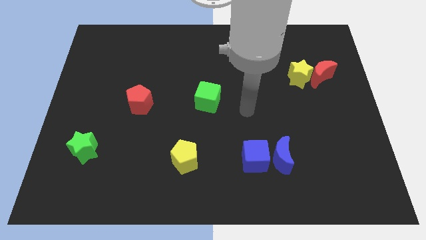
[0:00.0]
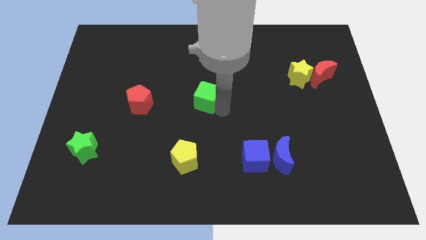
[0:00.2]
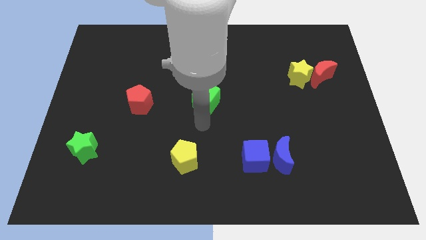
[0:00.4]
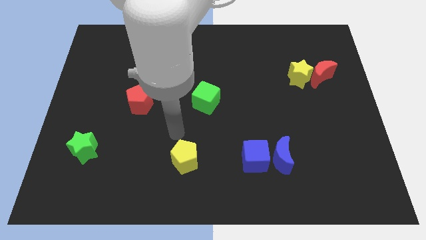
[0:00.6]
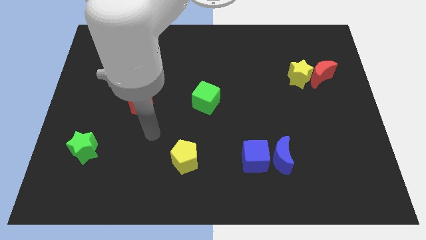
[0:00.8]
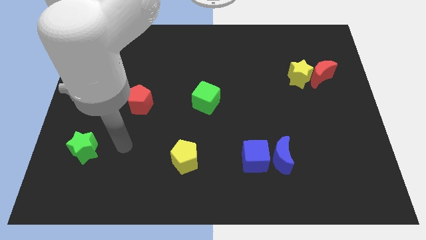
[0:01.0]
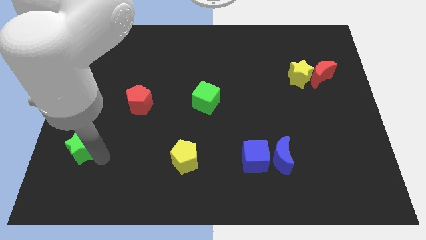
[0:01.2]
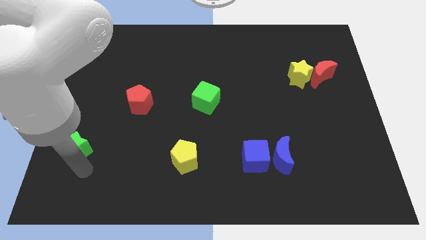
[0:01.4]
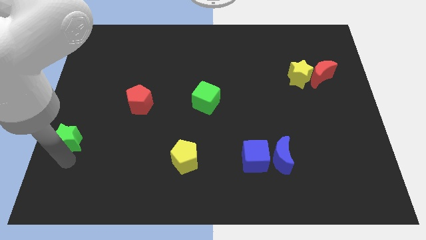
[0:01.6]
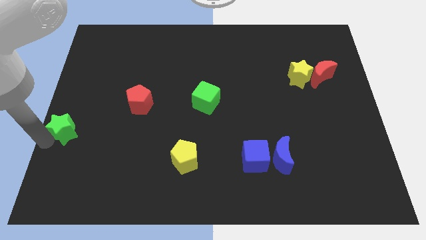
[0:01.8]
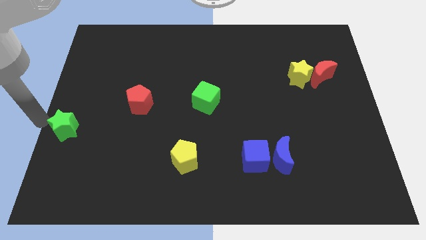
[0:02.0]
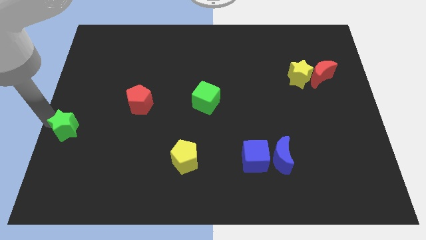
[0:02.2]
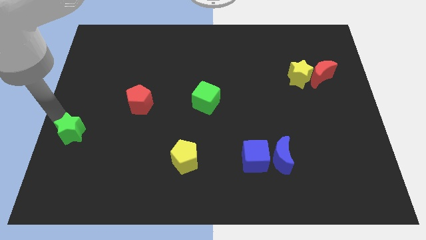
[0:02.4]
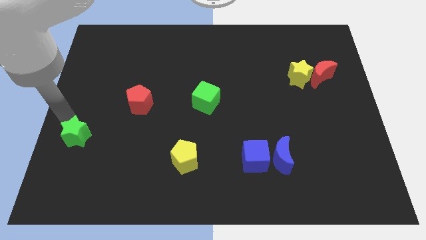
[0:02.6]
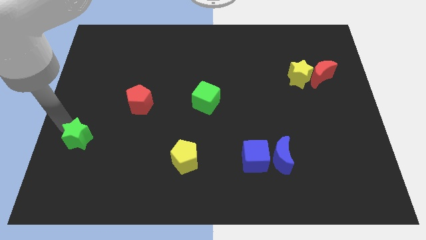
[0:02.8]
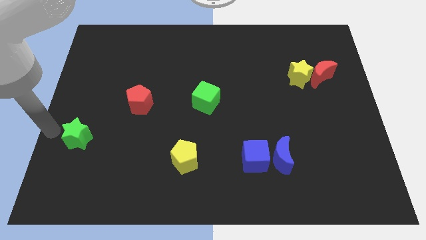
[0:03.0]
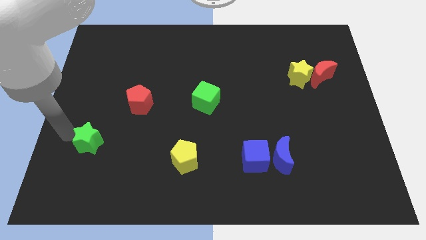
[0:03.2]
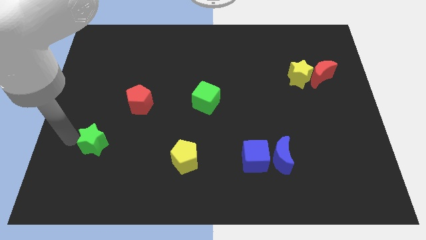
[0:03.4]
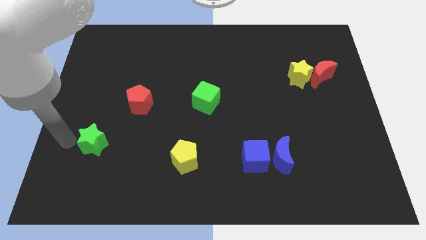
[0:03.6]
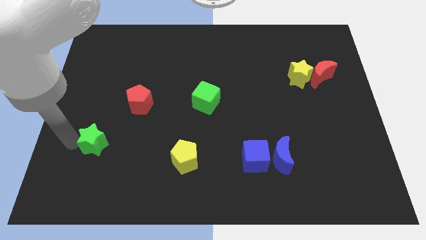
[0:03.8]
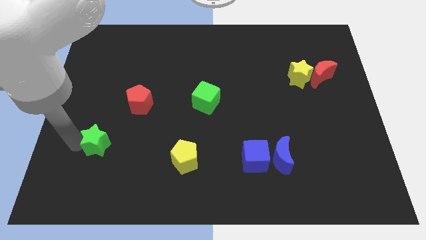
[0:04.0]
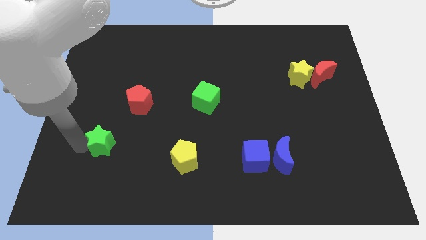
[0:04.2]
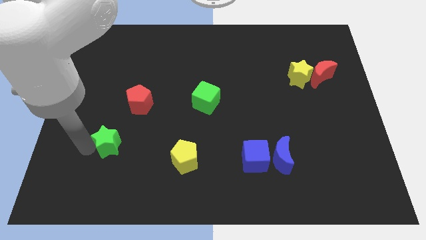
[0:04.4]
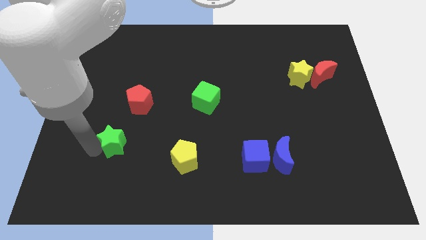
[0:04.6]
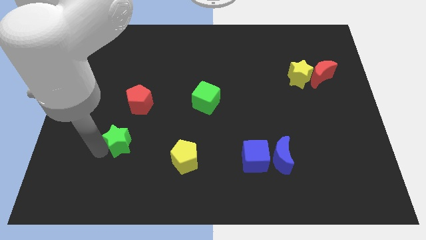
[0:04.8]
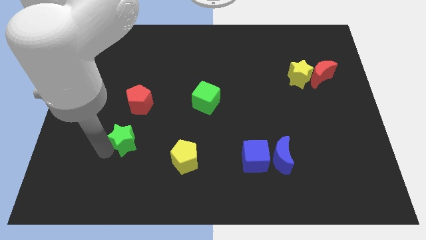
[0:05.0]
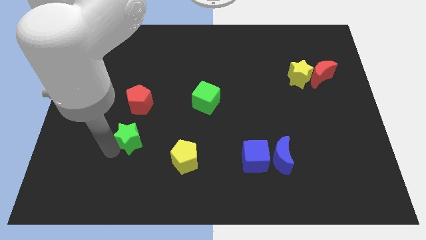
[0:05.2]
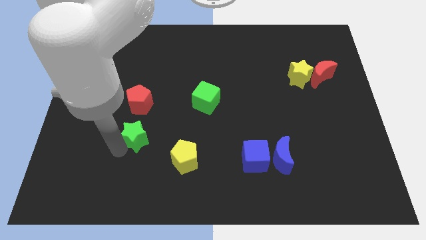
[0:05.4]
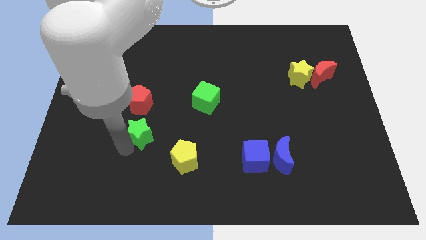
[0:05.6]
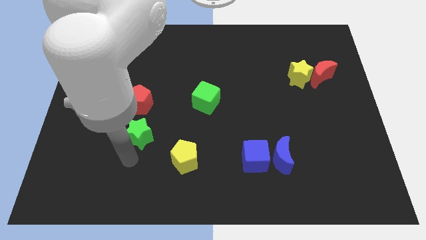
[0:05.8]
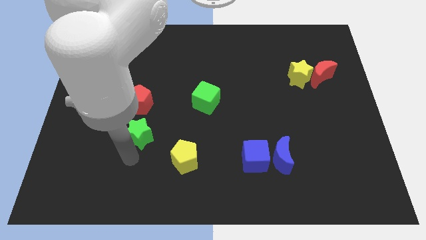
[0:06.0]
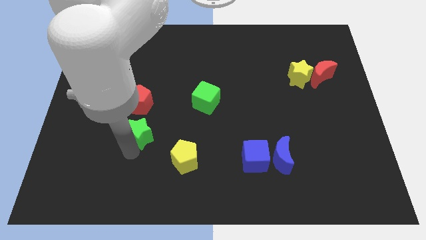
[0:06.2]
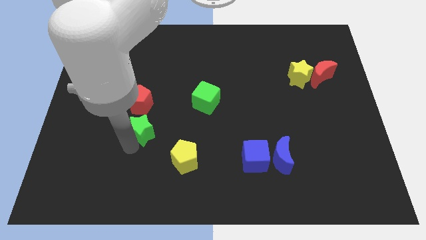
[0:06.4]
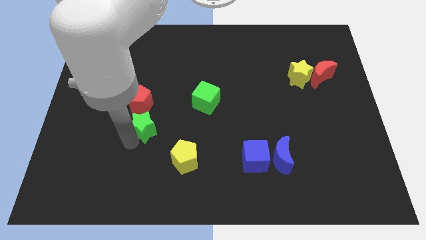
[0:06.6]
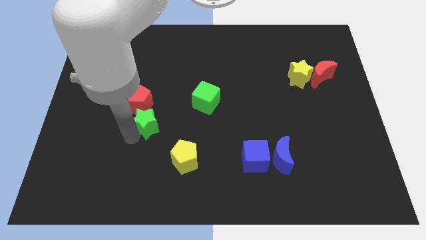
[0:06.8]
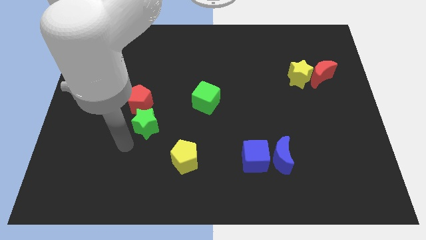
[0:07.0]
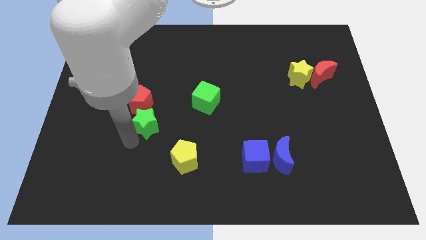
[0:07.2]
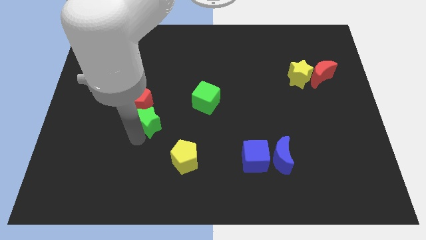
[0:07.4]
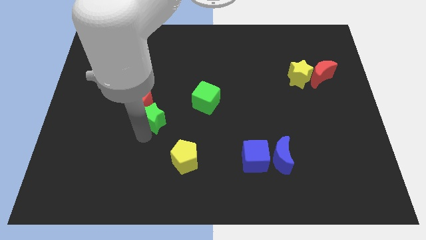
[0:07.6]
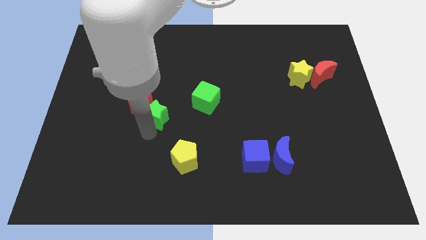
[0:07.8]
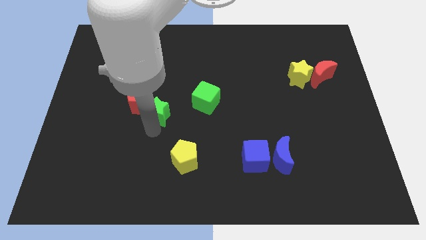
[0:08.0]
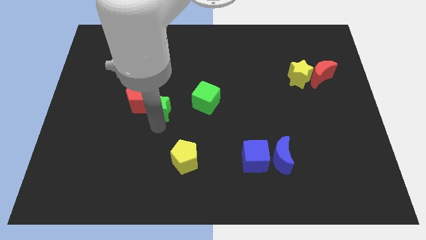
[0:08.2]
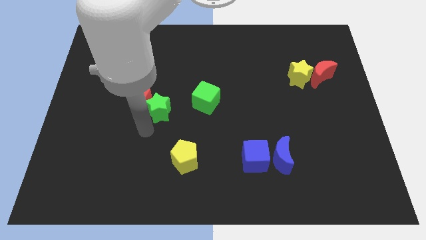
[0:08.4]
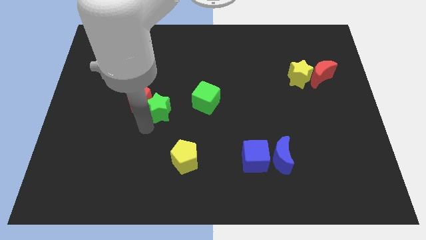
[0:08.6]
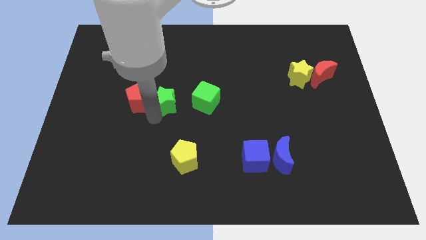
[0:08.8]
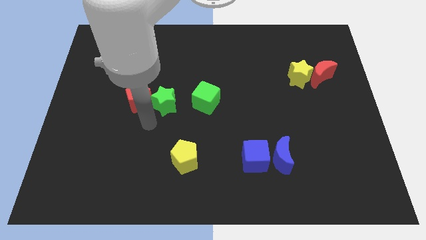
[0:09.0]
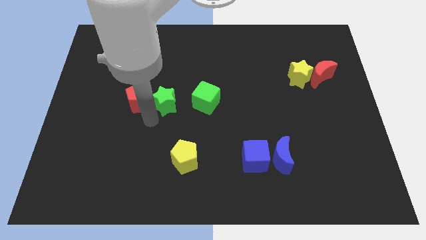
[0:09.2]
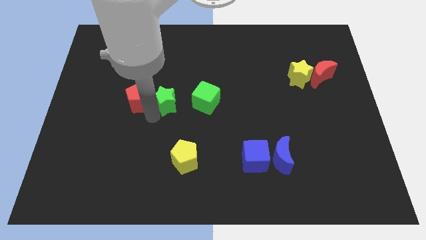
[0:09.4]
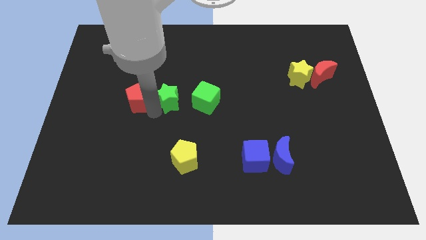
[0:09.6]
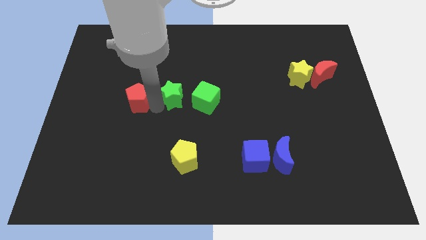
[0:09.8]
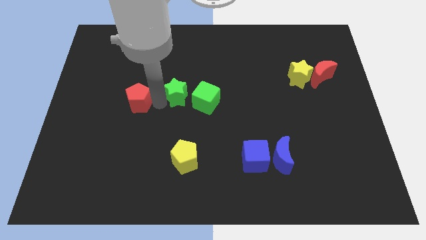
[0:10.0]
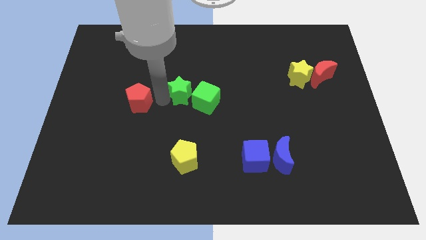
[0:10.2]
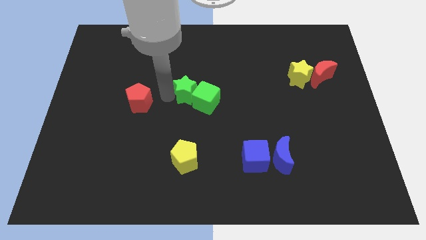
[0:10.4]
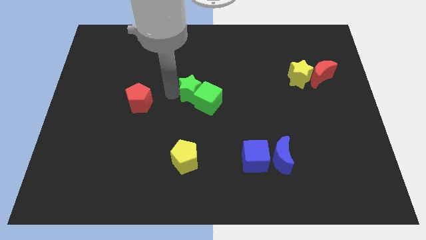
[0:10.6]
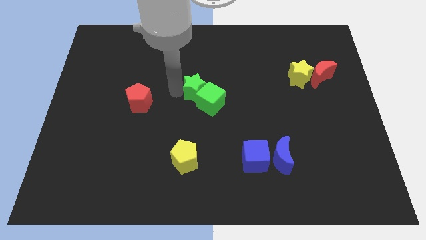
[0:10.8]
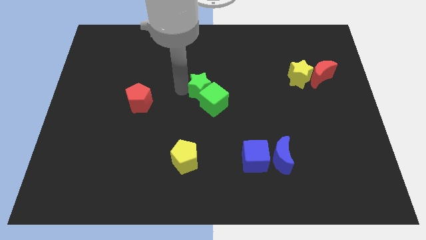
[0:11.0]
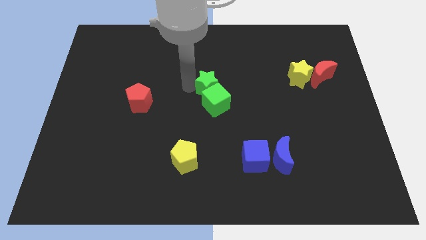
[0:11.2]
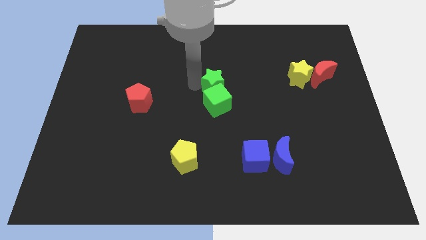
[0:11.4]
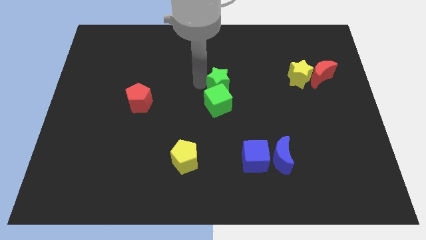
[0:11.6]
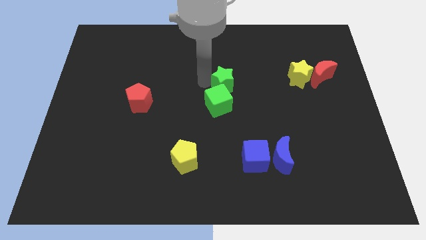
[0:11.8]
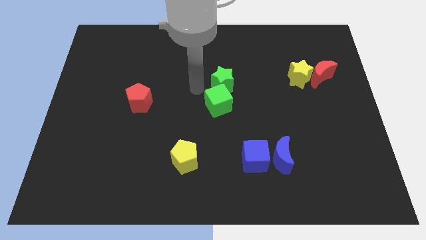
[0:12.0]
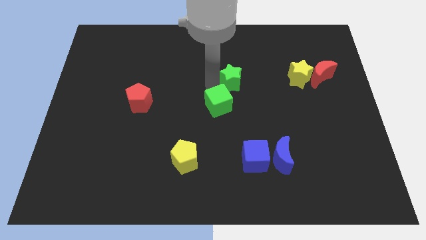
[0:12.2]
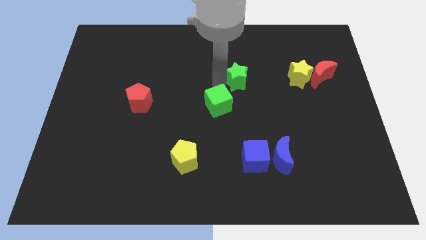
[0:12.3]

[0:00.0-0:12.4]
move the green star just left of the yellow star

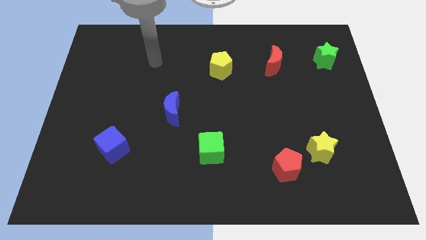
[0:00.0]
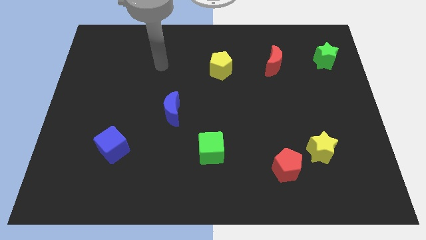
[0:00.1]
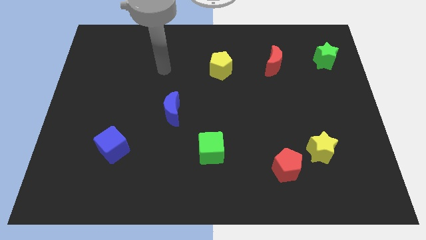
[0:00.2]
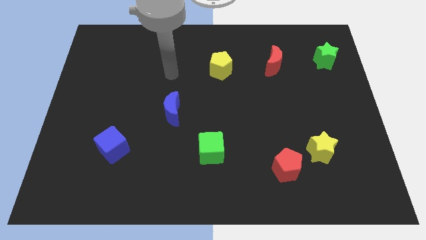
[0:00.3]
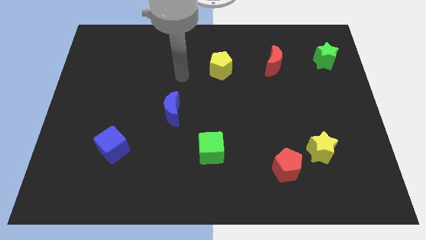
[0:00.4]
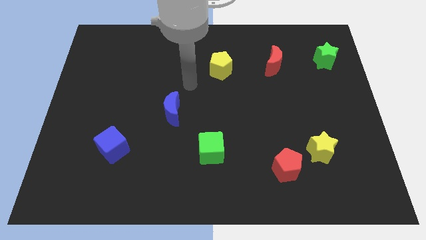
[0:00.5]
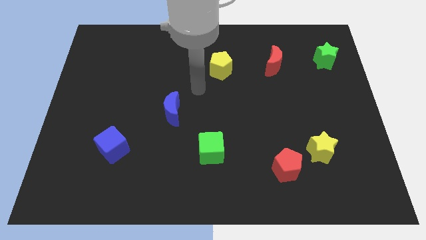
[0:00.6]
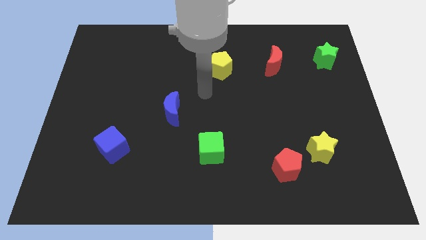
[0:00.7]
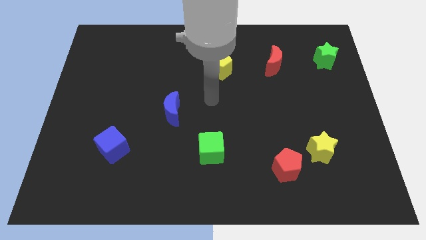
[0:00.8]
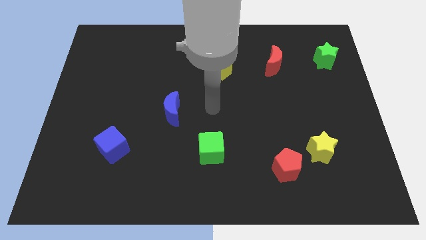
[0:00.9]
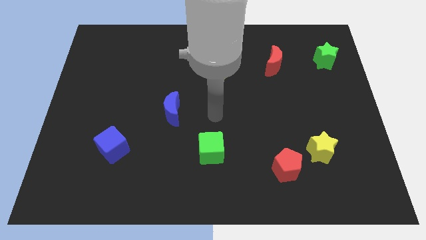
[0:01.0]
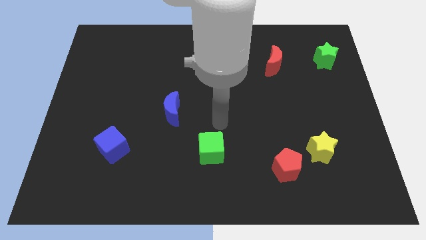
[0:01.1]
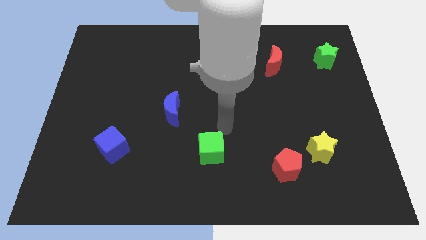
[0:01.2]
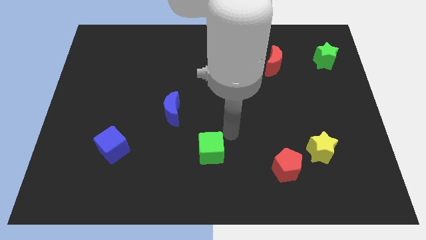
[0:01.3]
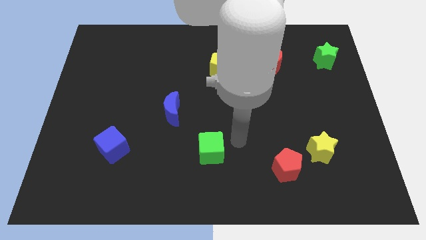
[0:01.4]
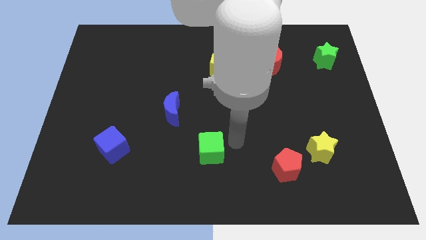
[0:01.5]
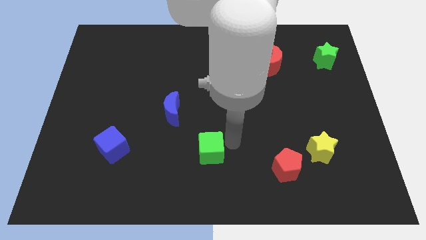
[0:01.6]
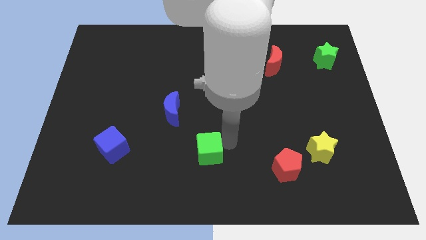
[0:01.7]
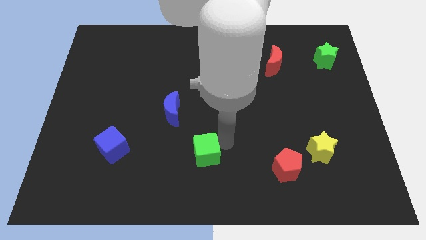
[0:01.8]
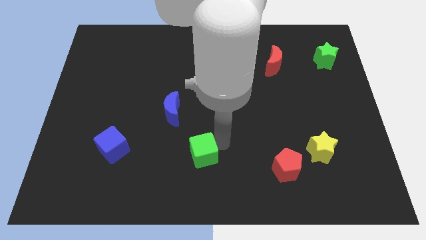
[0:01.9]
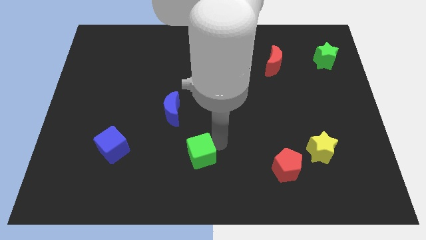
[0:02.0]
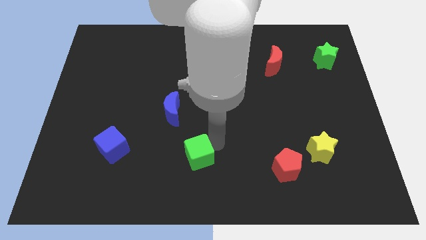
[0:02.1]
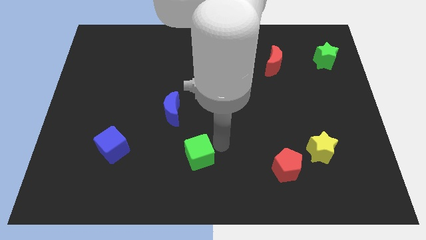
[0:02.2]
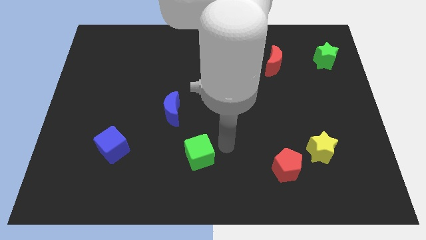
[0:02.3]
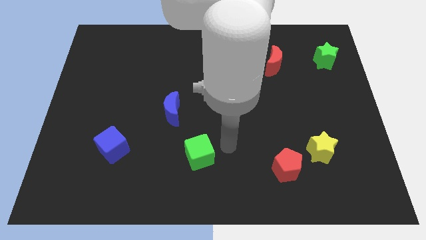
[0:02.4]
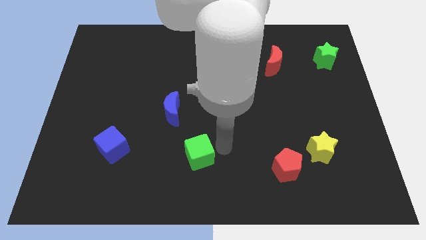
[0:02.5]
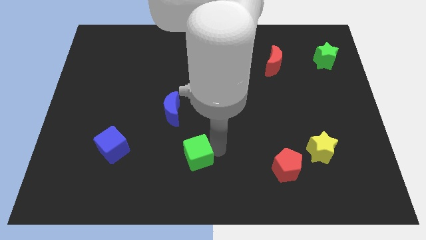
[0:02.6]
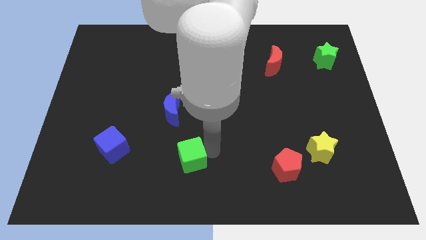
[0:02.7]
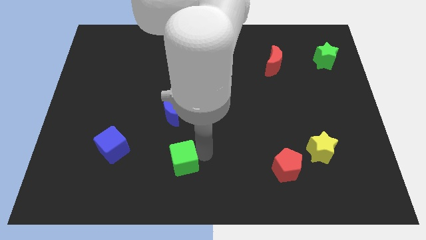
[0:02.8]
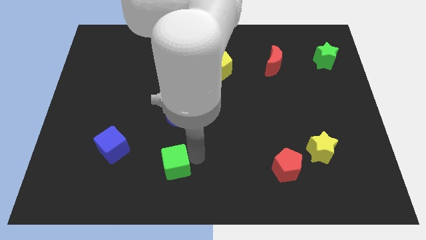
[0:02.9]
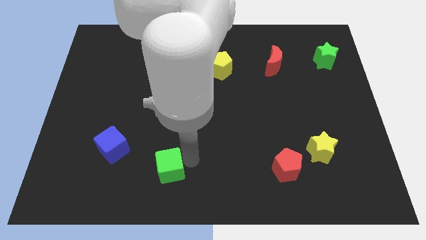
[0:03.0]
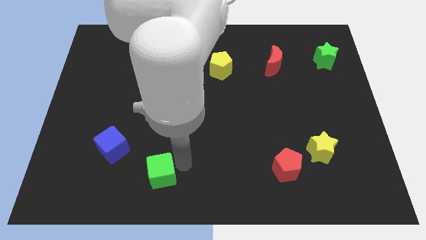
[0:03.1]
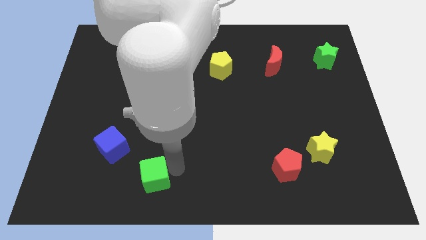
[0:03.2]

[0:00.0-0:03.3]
move the green cube to the bottom right side of the blue cube
